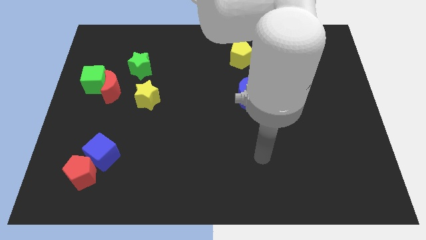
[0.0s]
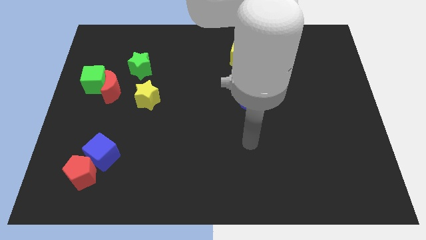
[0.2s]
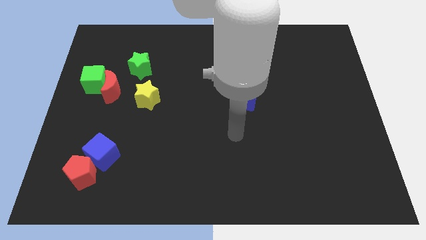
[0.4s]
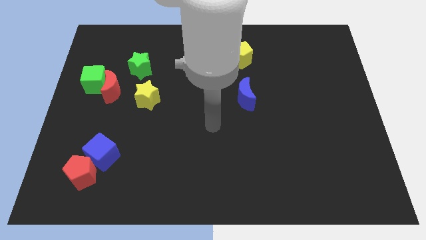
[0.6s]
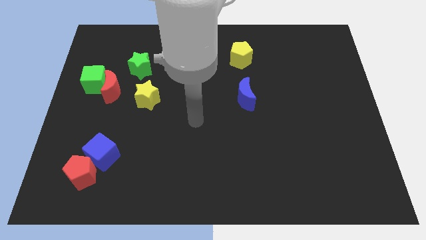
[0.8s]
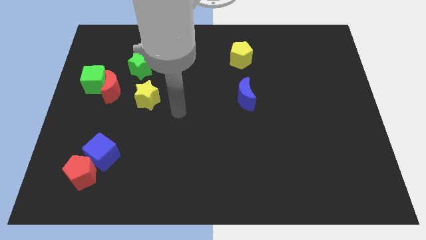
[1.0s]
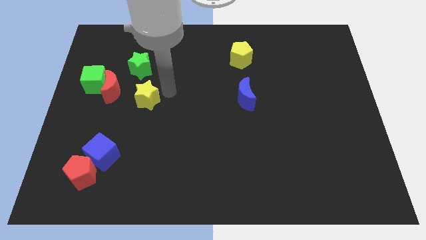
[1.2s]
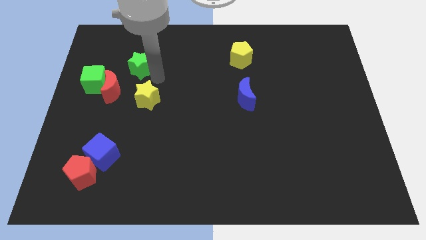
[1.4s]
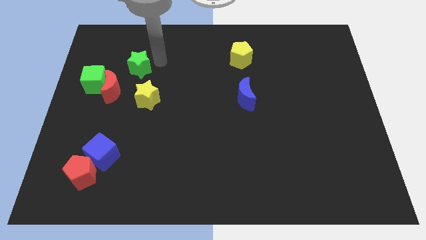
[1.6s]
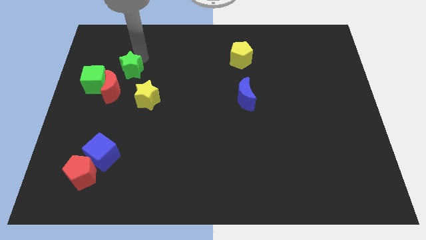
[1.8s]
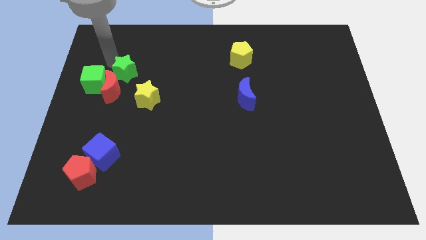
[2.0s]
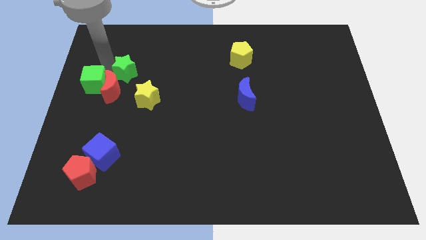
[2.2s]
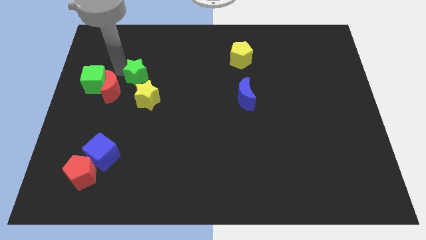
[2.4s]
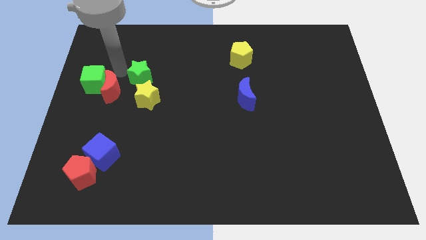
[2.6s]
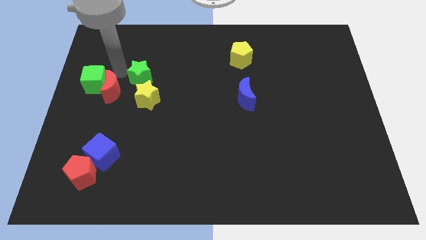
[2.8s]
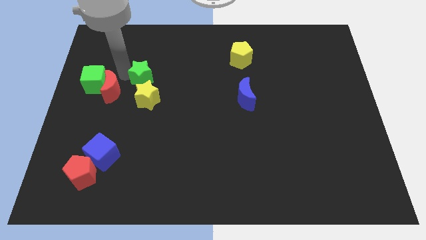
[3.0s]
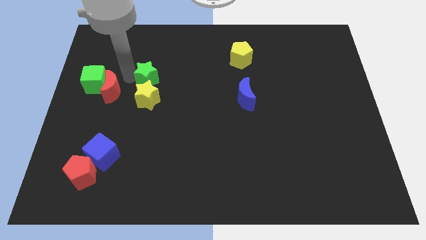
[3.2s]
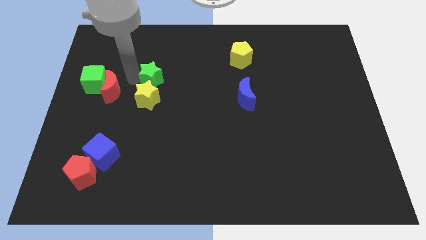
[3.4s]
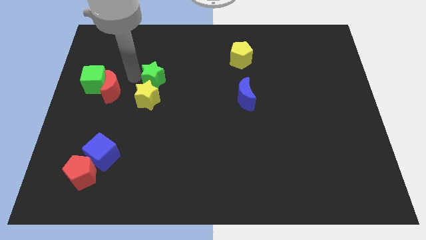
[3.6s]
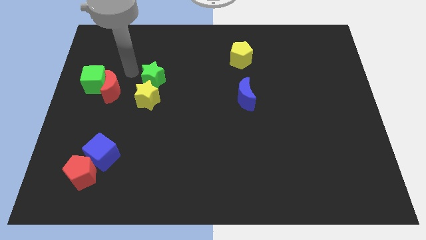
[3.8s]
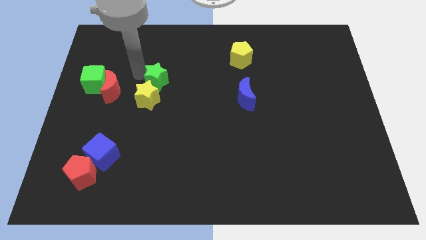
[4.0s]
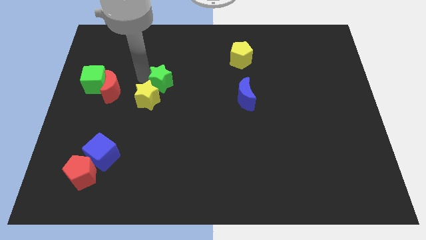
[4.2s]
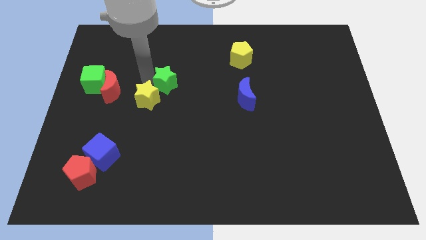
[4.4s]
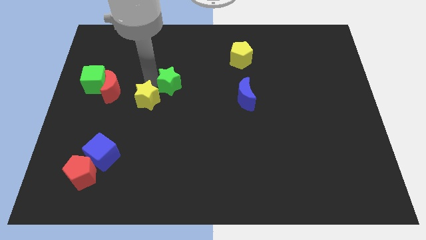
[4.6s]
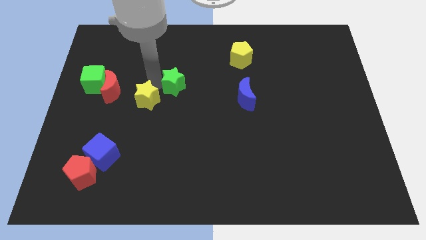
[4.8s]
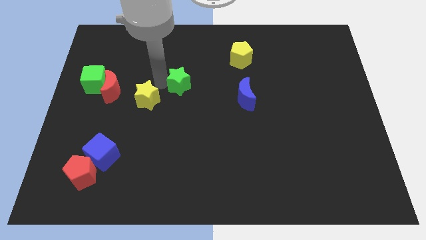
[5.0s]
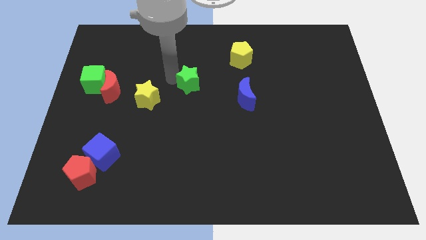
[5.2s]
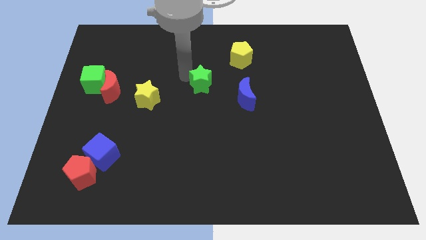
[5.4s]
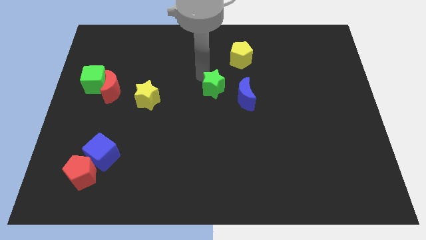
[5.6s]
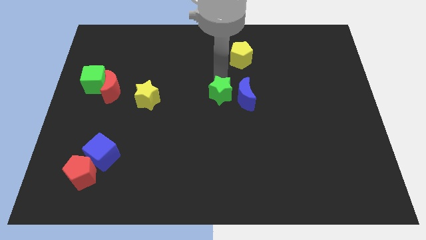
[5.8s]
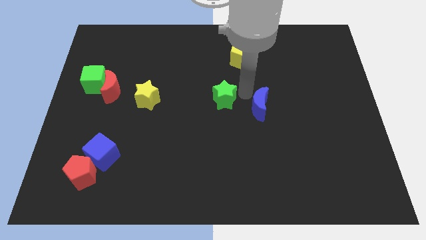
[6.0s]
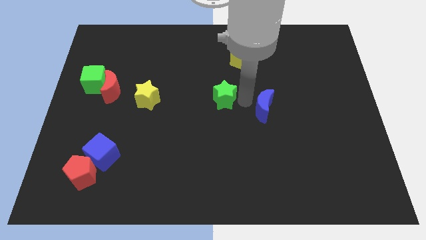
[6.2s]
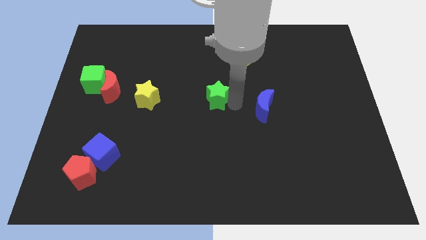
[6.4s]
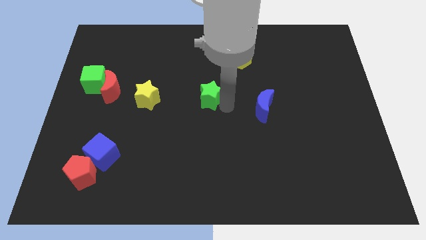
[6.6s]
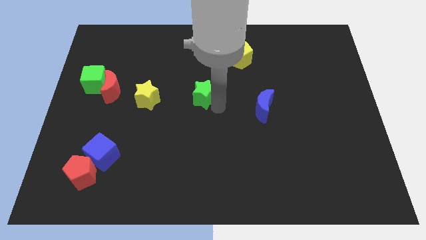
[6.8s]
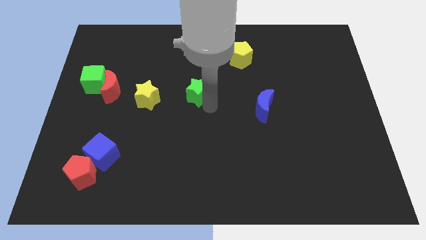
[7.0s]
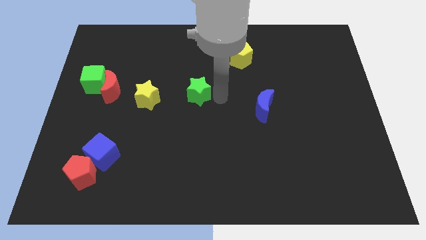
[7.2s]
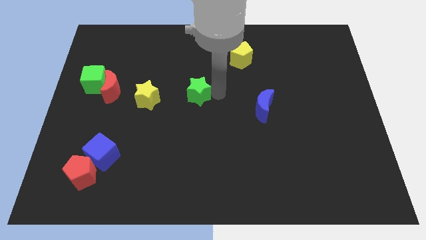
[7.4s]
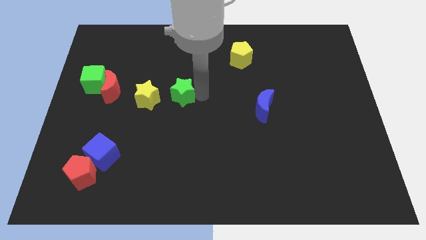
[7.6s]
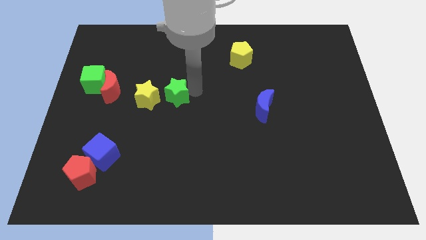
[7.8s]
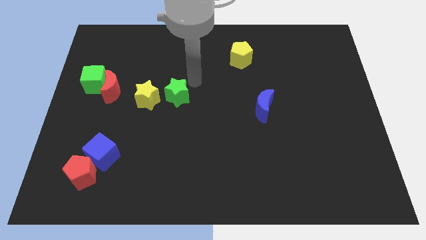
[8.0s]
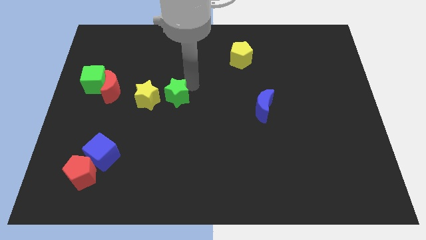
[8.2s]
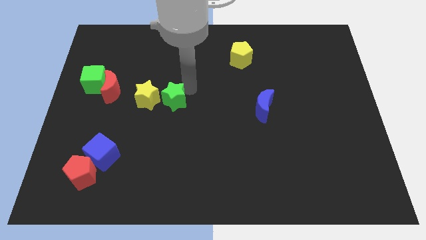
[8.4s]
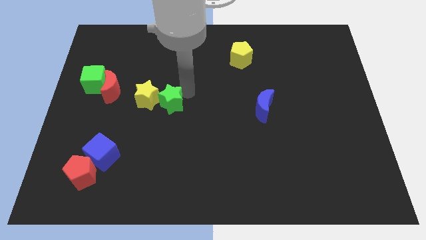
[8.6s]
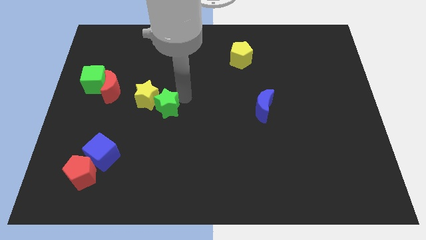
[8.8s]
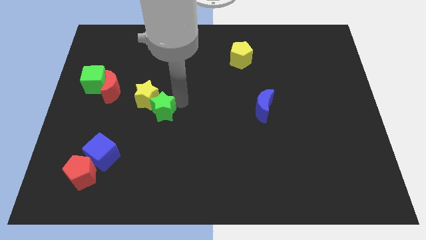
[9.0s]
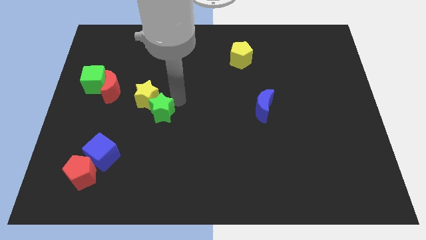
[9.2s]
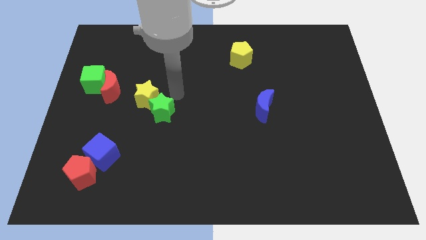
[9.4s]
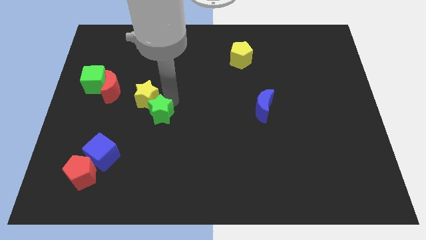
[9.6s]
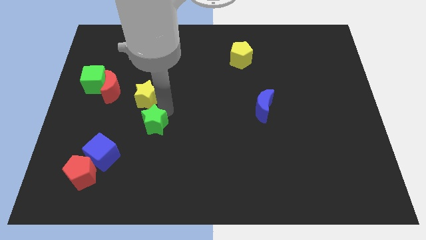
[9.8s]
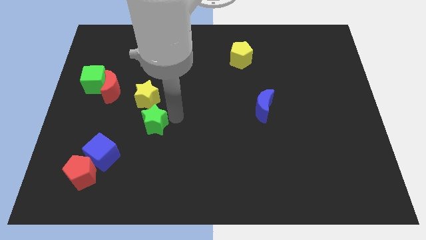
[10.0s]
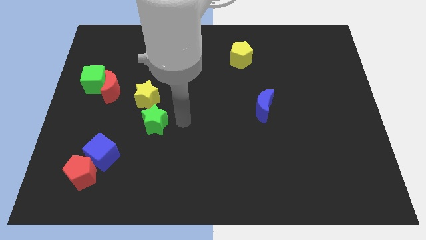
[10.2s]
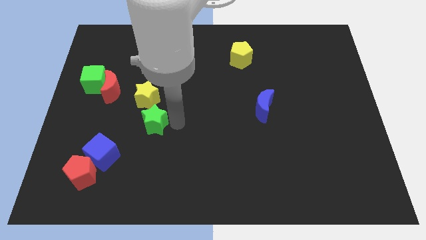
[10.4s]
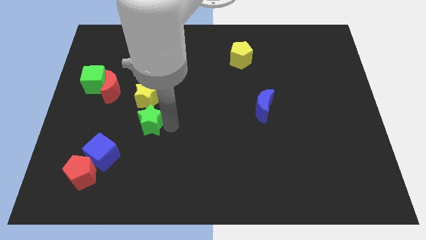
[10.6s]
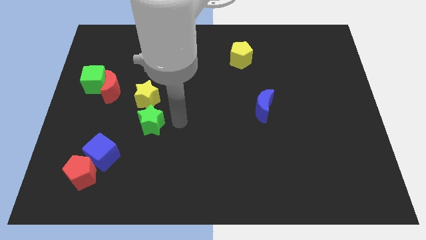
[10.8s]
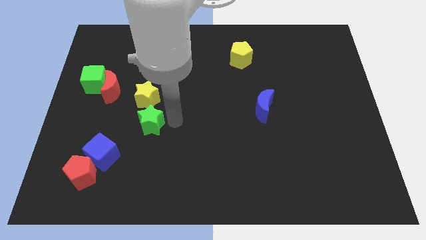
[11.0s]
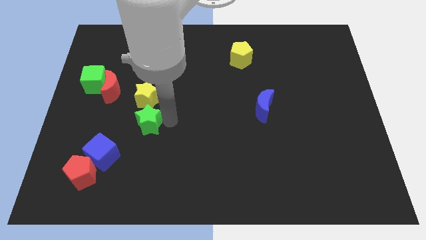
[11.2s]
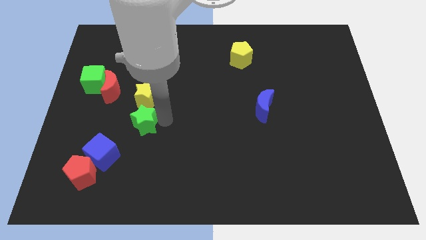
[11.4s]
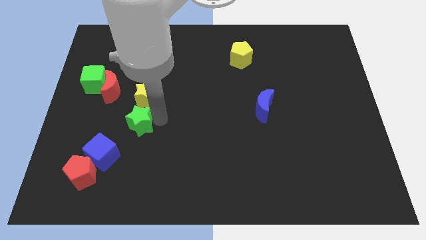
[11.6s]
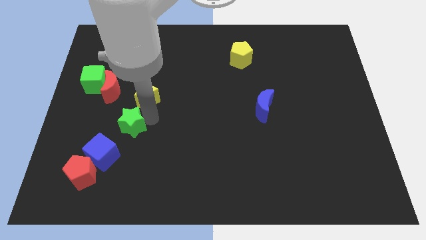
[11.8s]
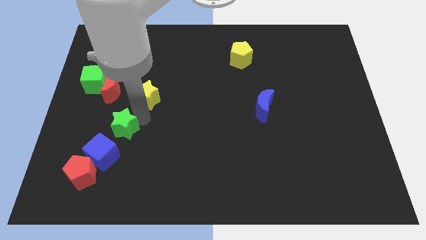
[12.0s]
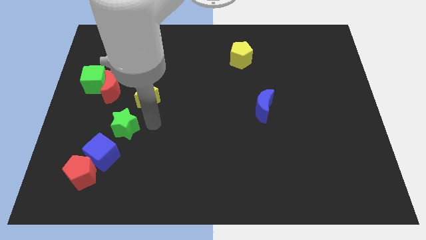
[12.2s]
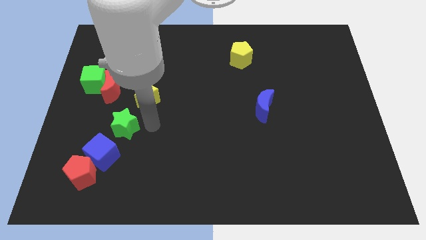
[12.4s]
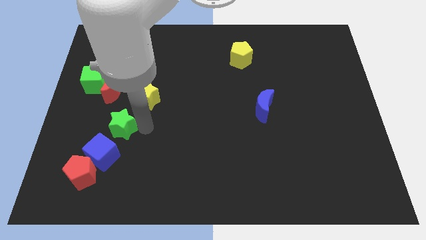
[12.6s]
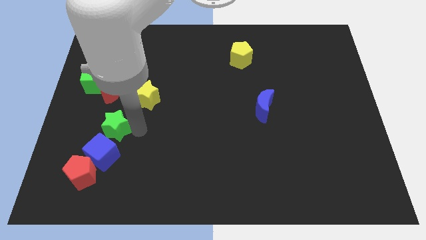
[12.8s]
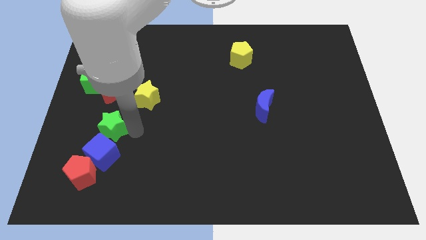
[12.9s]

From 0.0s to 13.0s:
put the green star to the top side of the red pentagon

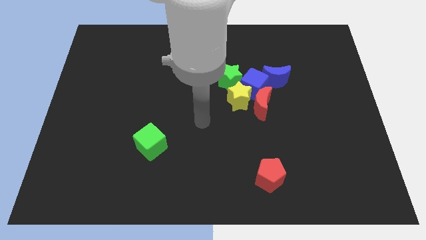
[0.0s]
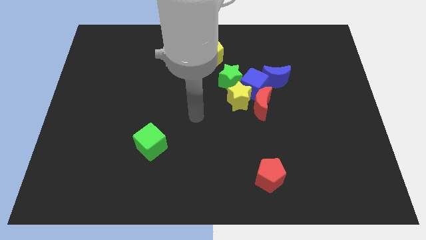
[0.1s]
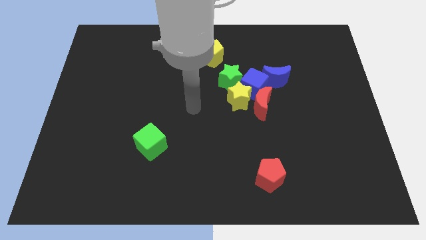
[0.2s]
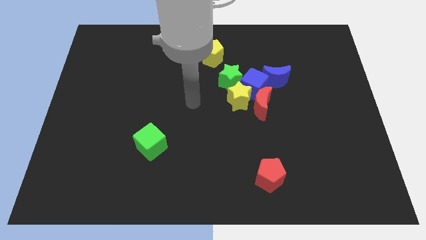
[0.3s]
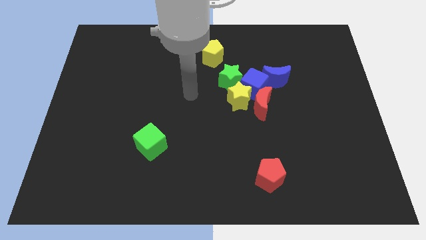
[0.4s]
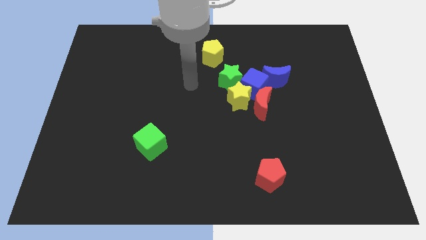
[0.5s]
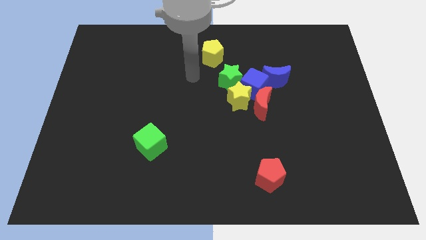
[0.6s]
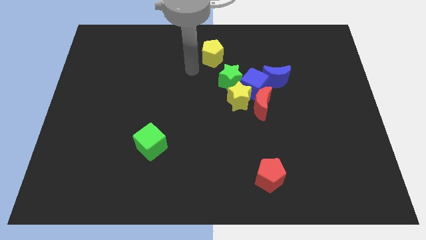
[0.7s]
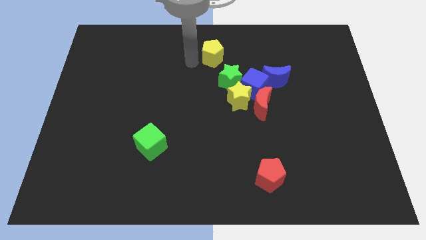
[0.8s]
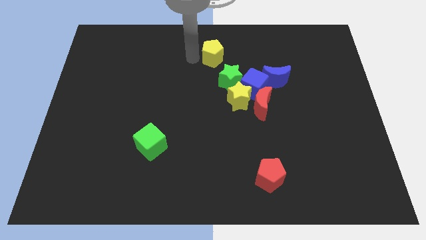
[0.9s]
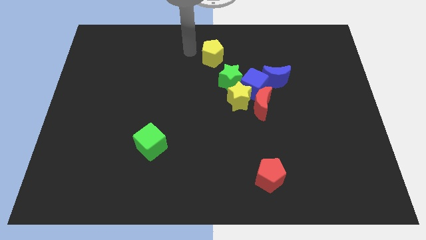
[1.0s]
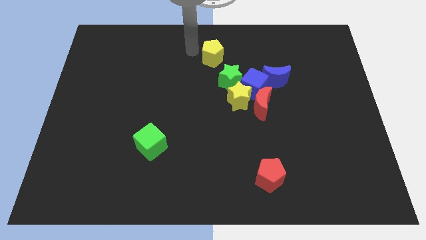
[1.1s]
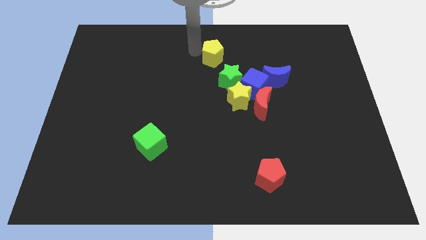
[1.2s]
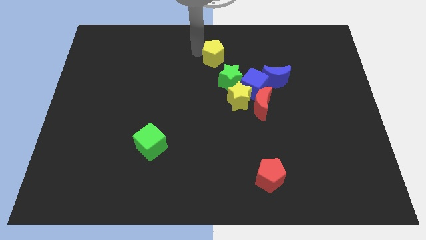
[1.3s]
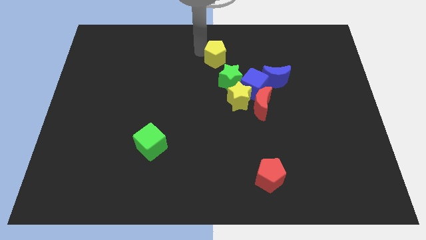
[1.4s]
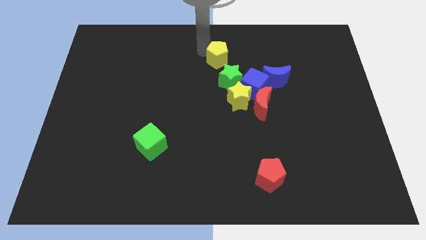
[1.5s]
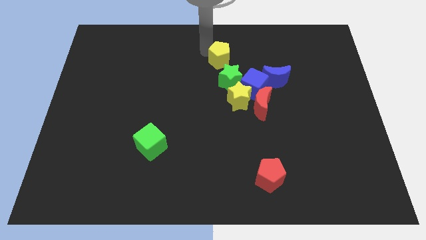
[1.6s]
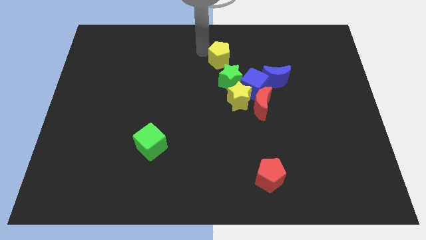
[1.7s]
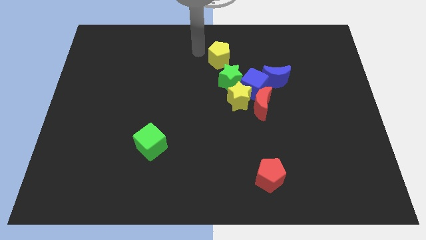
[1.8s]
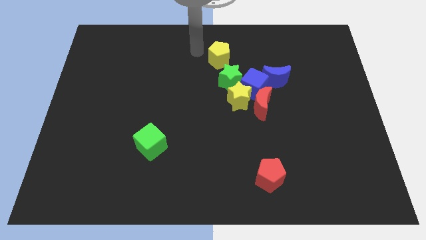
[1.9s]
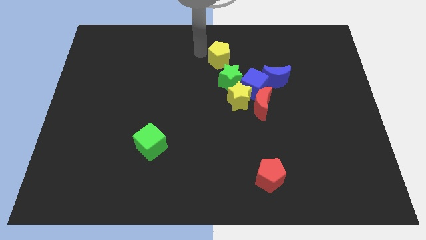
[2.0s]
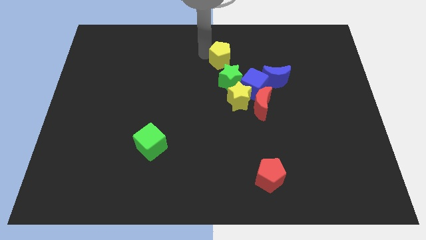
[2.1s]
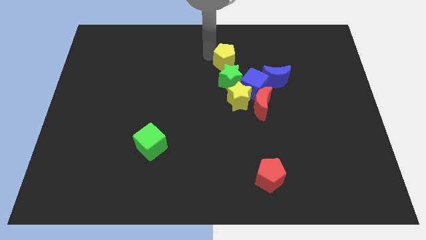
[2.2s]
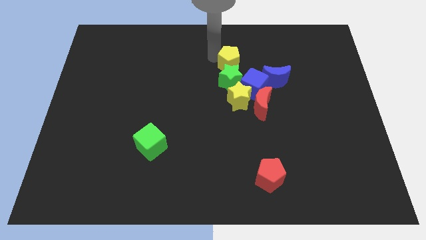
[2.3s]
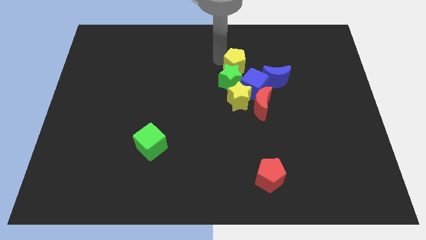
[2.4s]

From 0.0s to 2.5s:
push the yellow pentagon diagonally up and to the left of the blue moon
